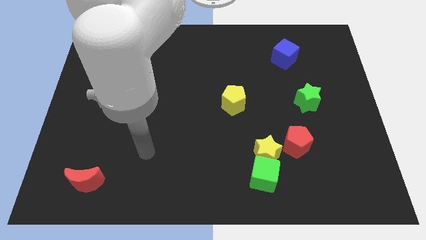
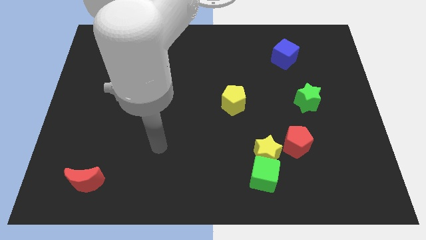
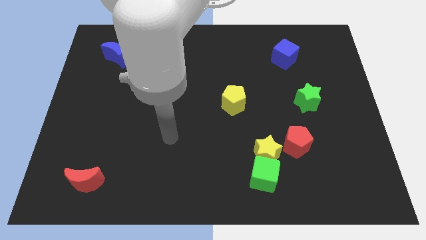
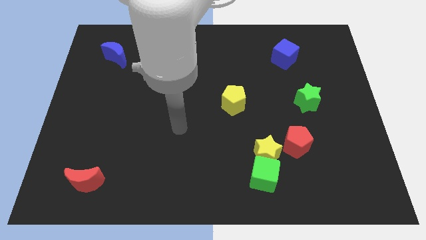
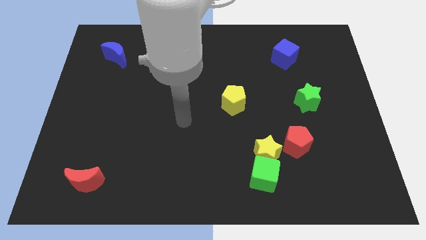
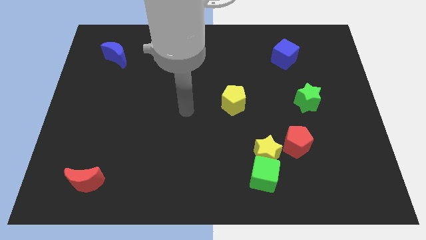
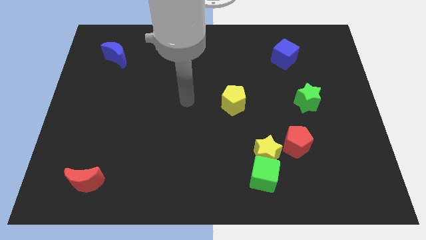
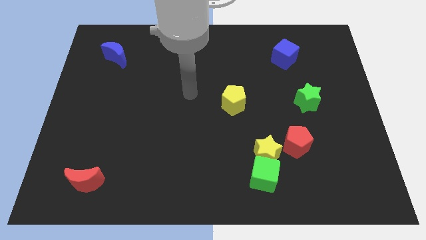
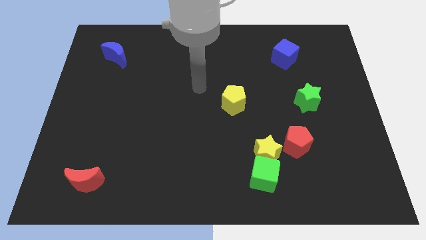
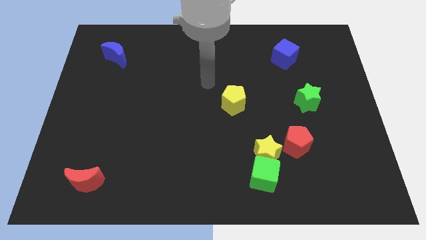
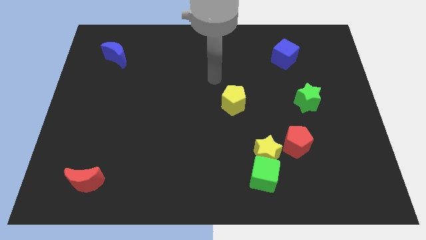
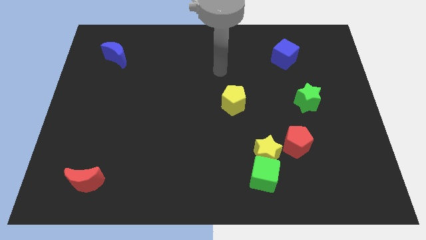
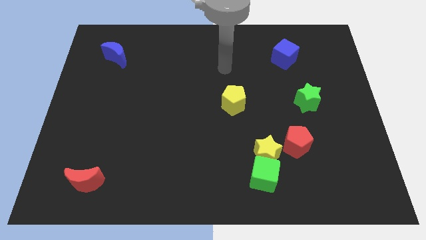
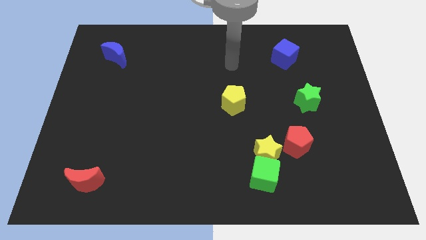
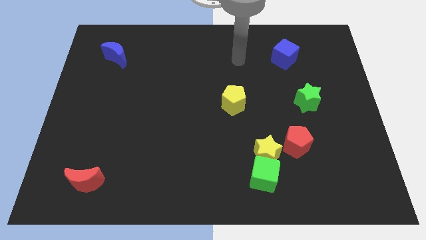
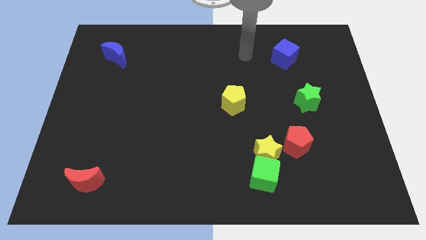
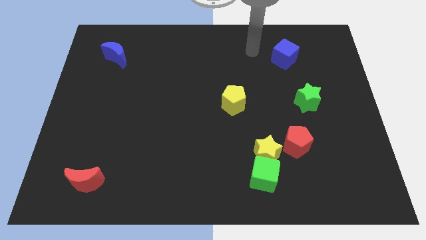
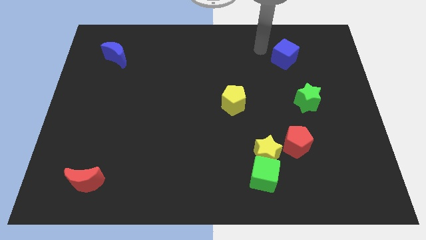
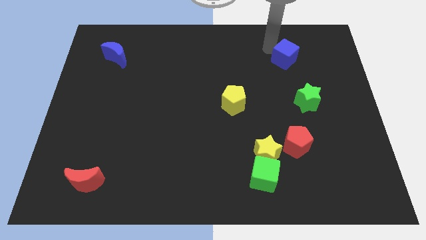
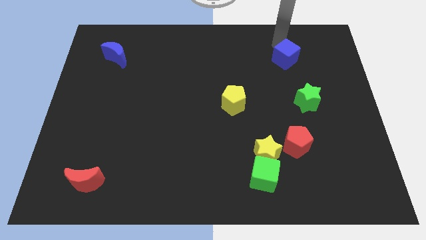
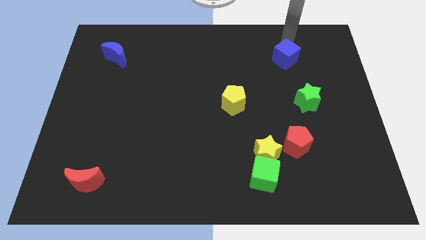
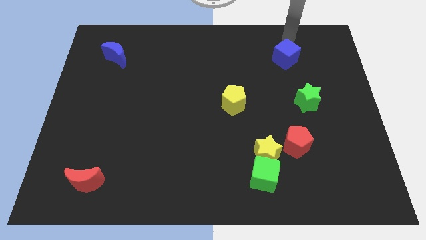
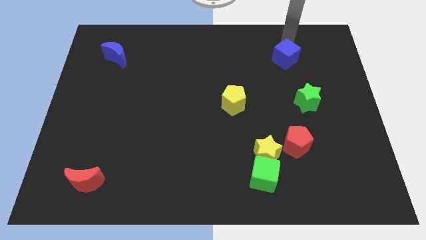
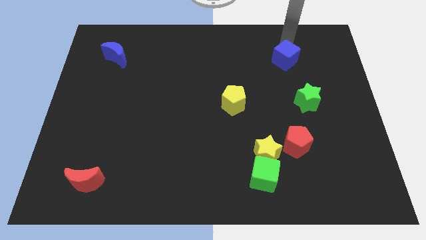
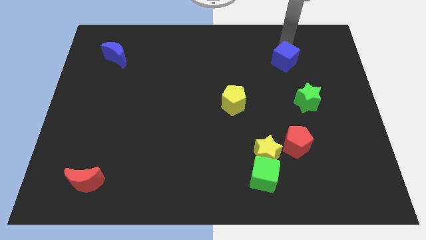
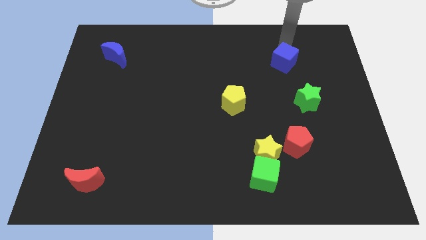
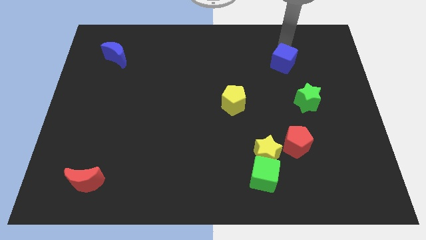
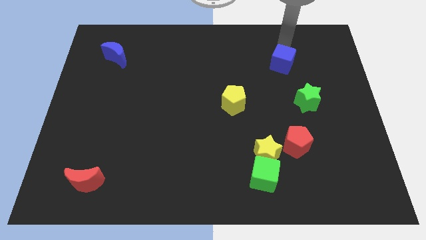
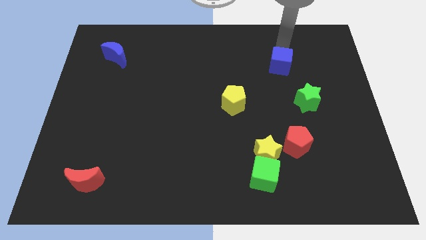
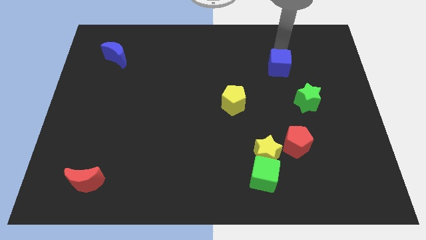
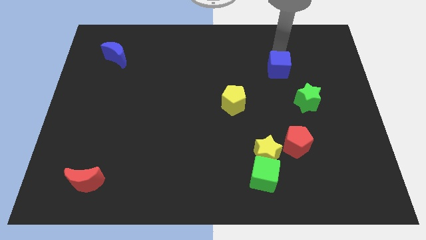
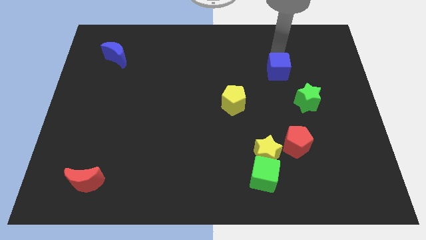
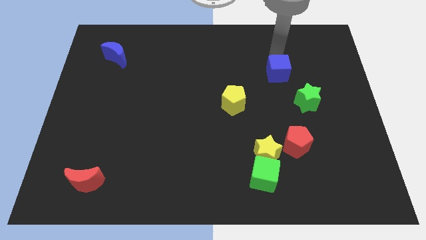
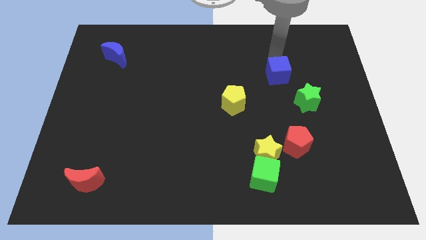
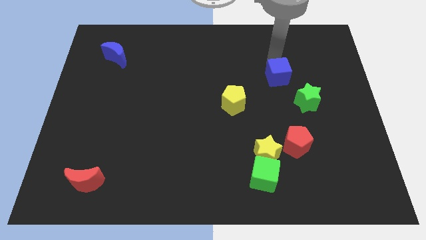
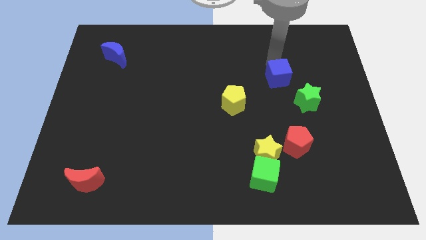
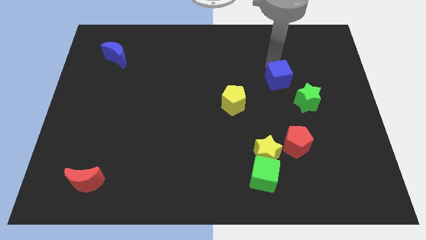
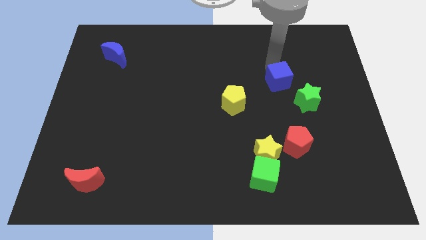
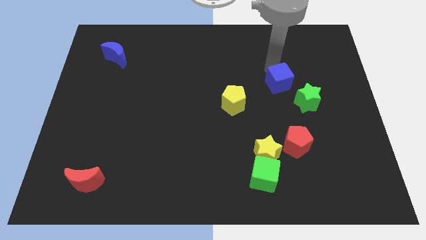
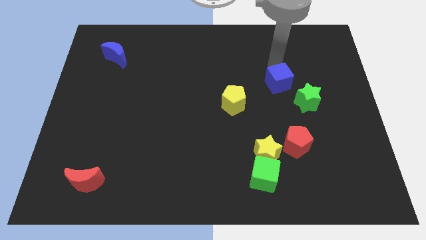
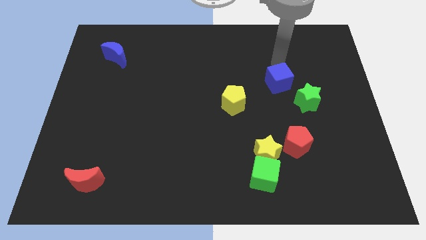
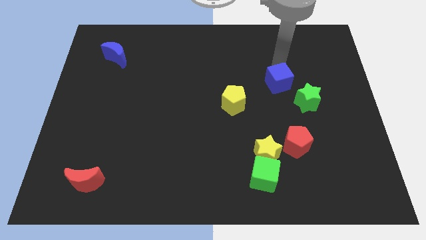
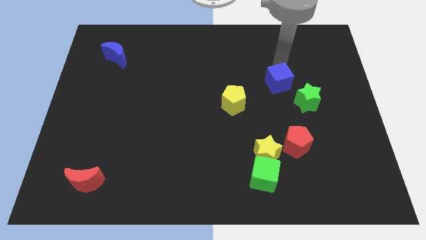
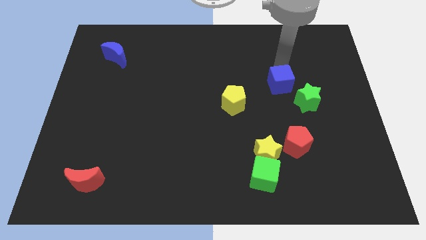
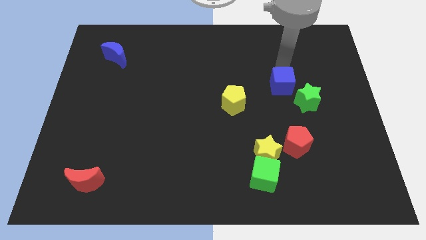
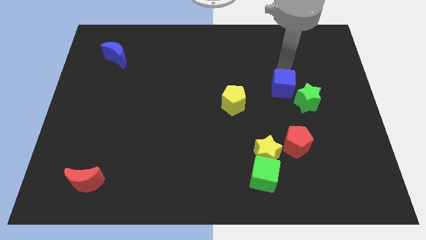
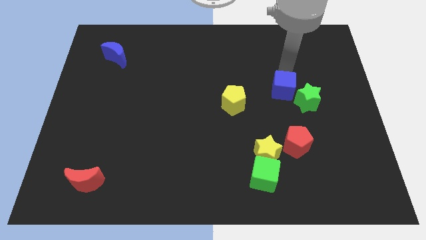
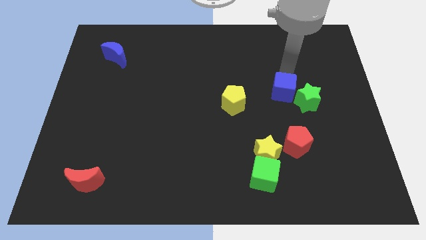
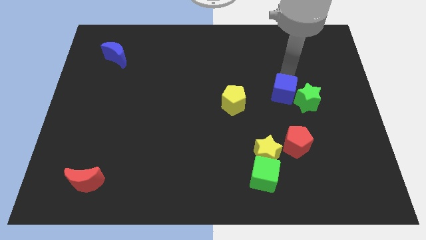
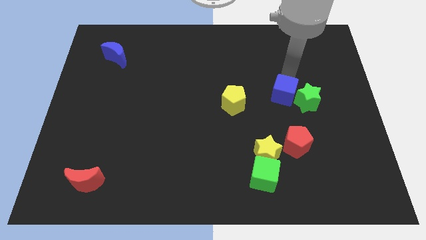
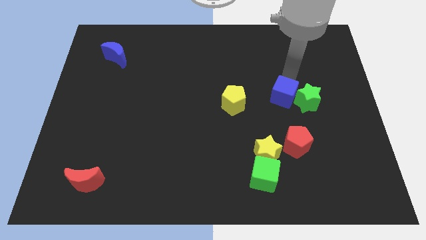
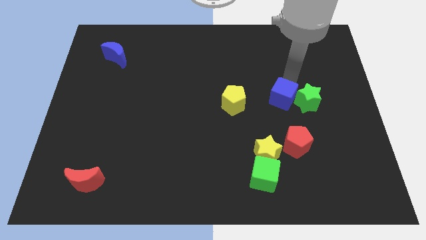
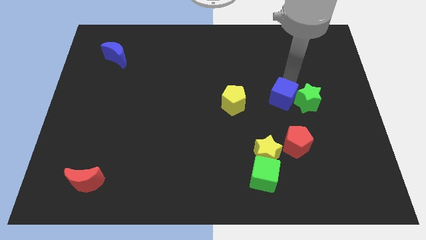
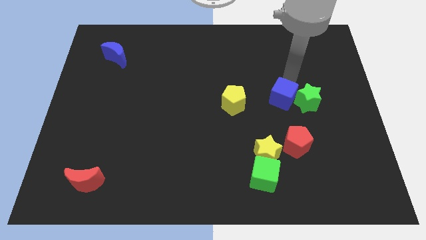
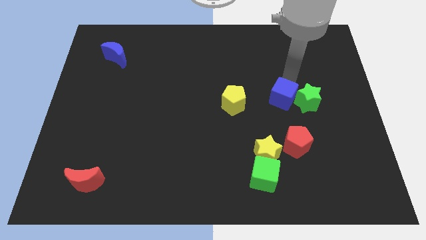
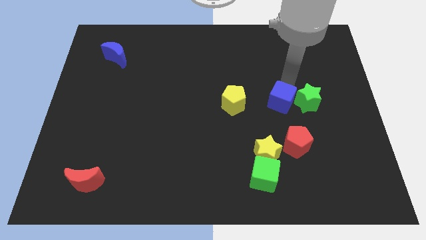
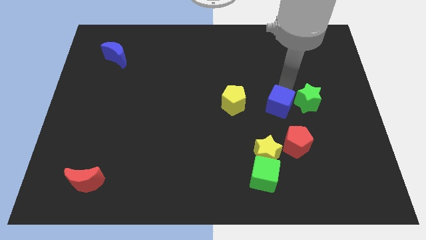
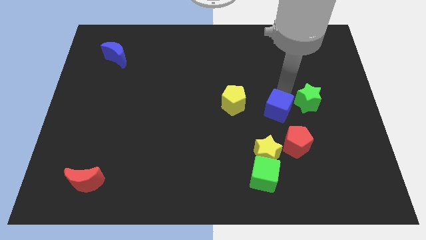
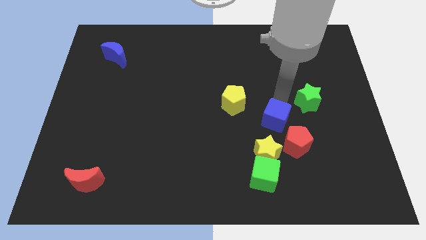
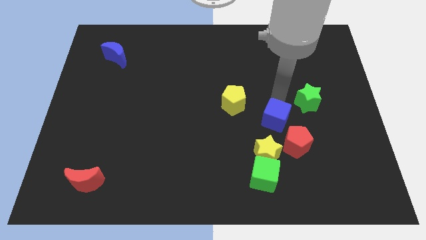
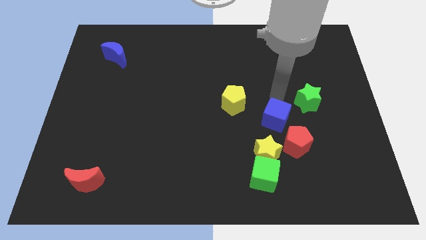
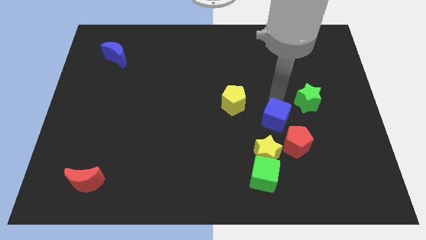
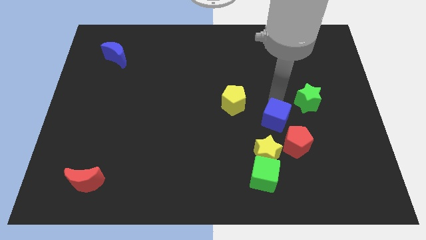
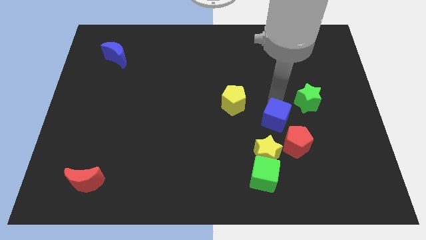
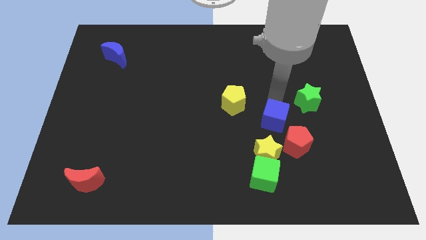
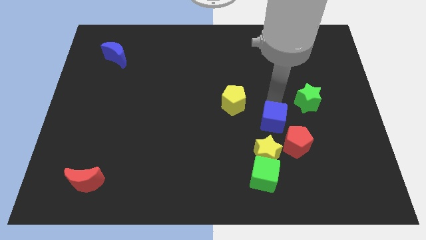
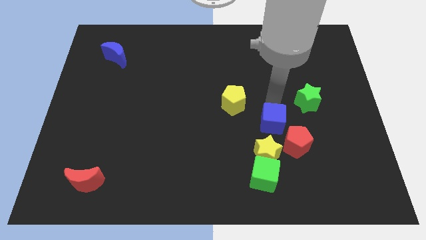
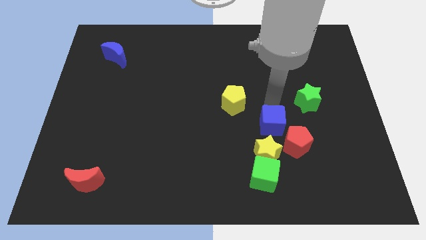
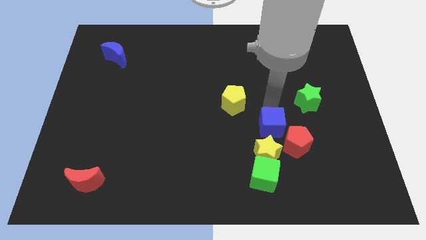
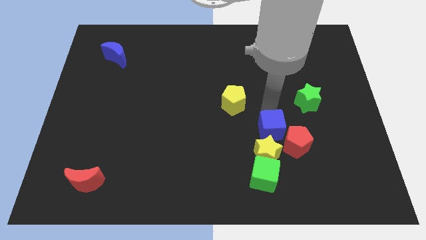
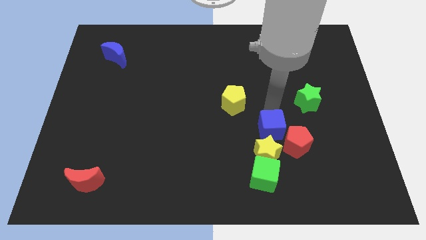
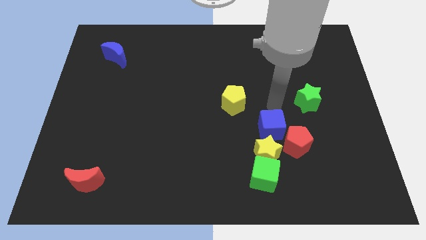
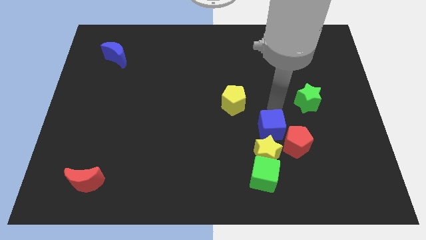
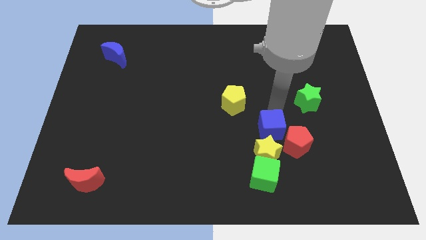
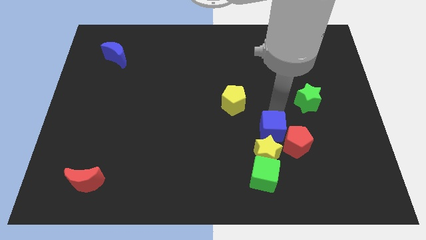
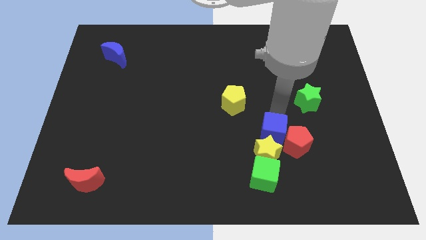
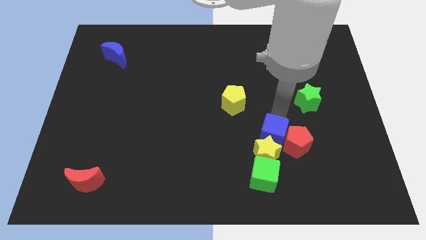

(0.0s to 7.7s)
move the blue cube towards the yellow star

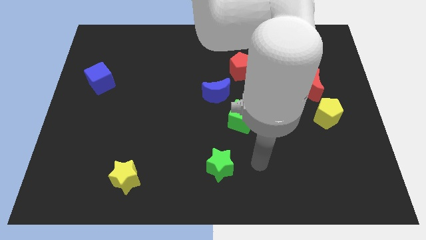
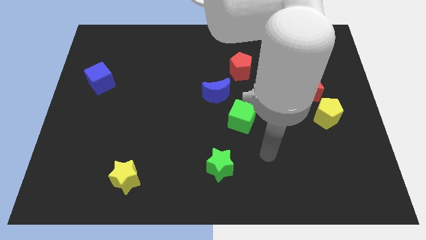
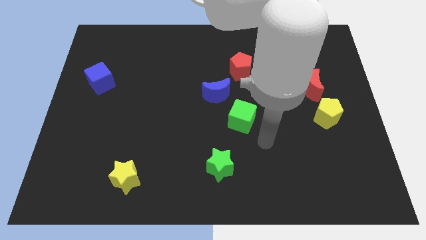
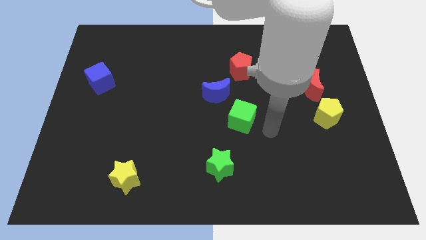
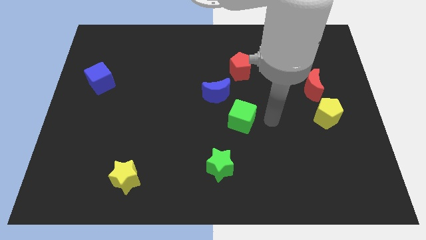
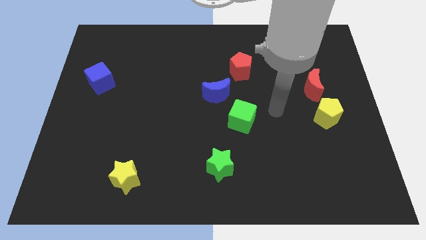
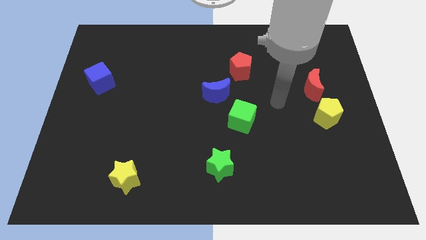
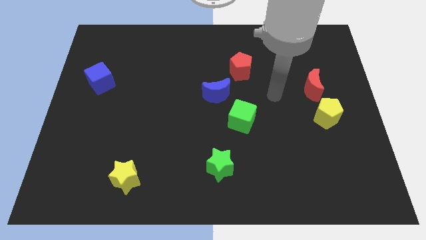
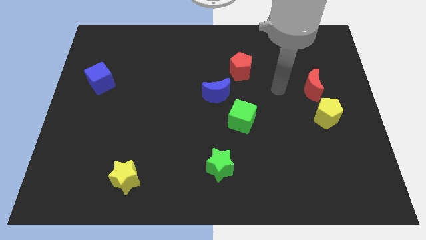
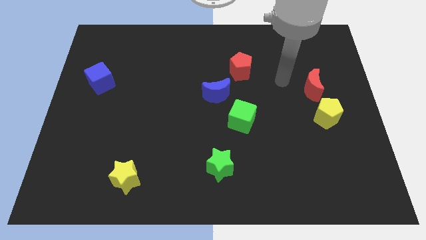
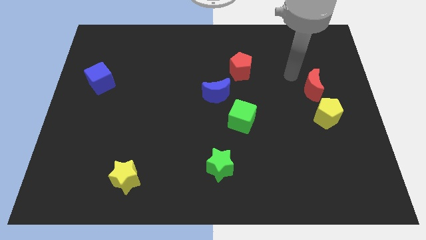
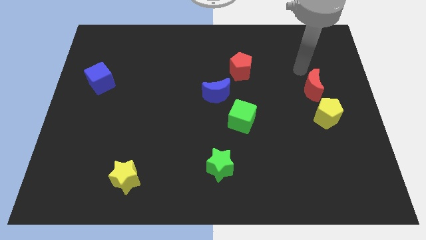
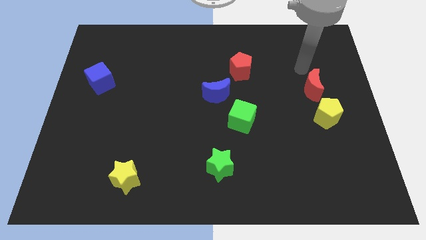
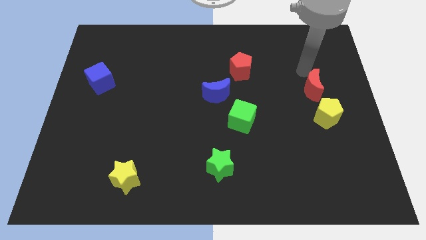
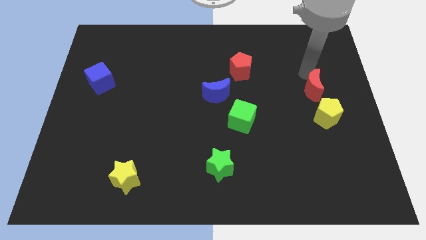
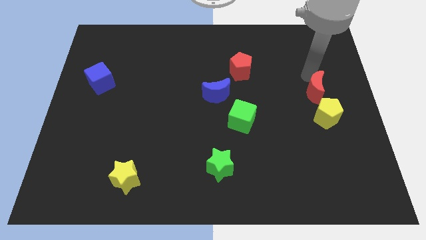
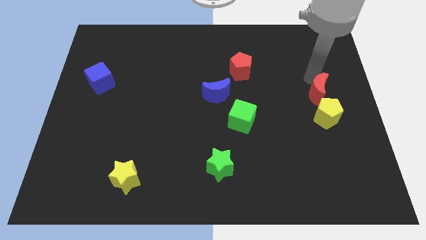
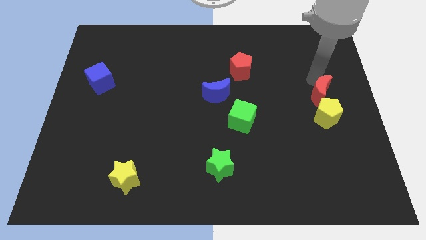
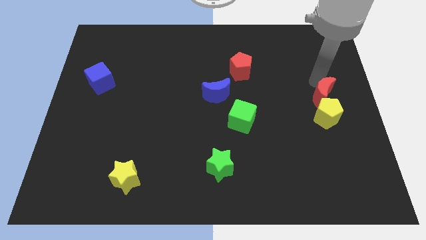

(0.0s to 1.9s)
put the red moon close to the yellow pentagon
